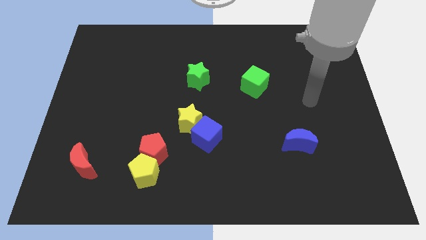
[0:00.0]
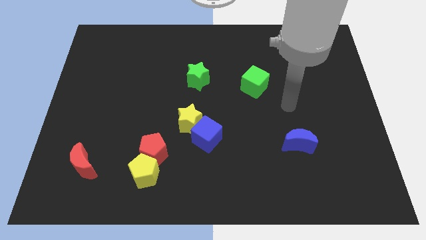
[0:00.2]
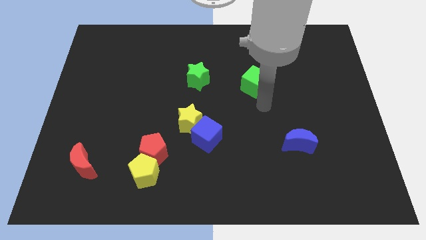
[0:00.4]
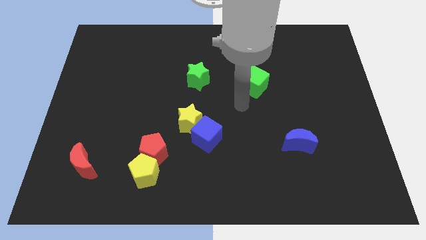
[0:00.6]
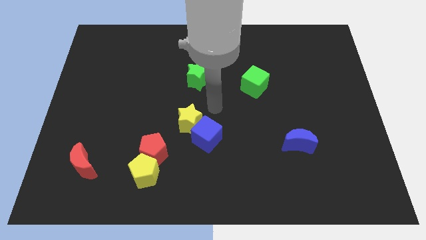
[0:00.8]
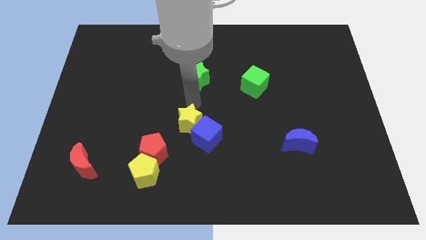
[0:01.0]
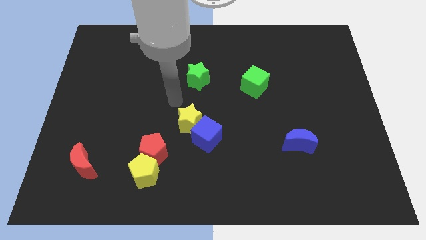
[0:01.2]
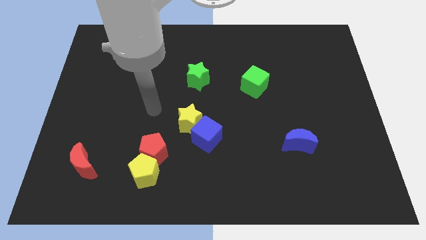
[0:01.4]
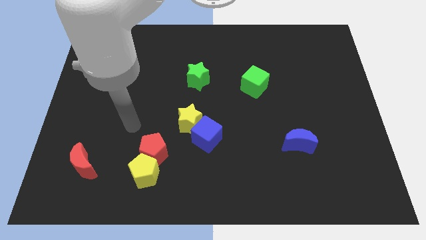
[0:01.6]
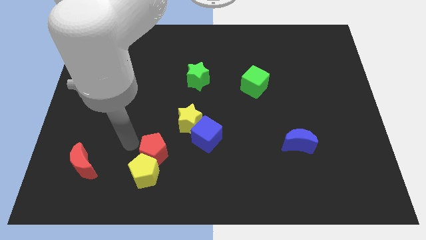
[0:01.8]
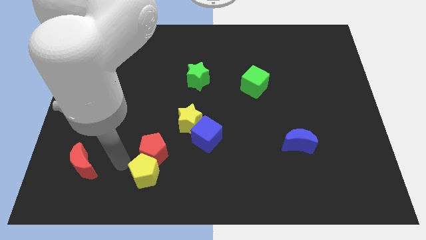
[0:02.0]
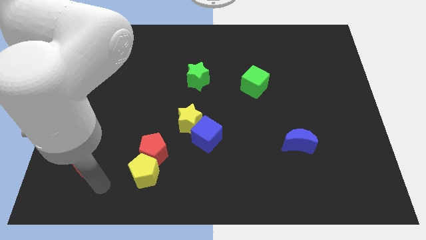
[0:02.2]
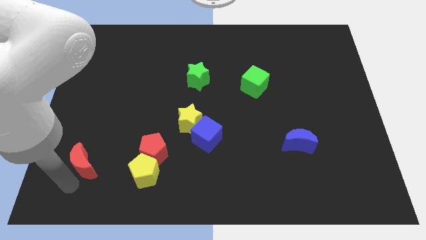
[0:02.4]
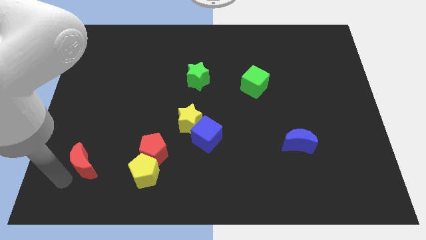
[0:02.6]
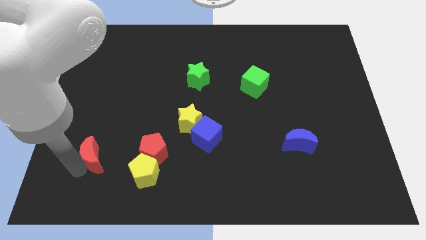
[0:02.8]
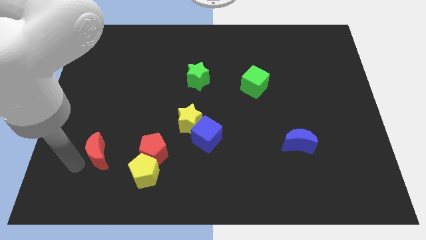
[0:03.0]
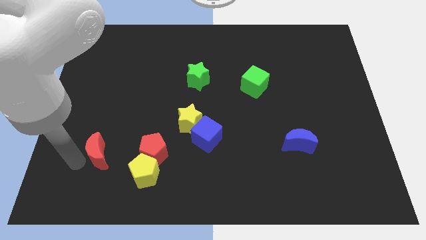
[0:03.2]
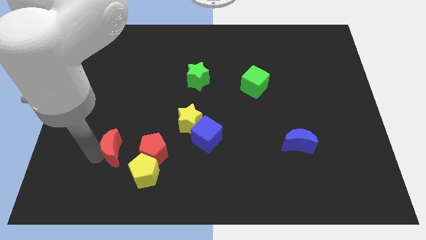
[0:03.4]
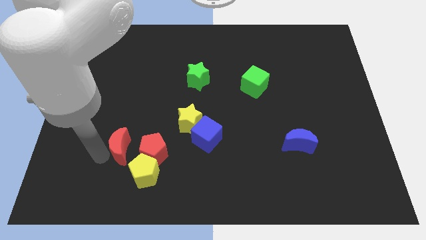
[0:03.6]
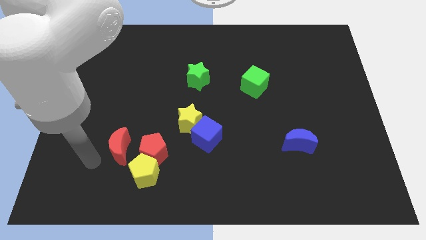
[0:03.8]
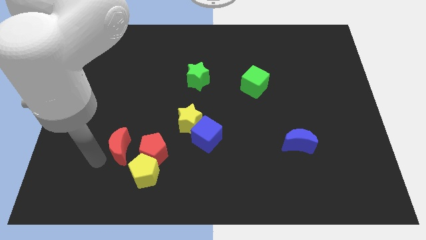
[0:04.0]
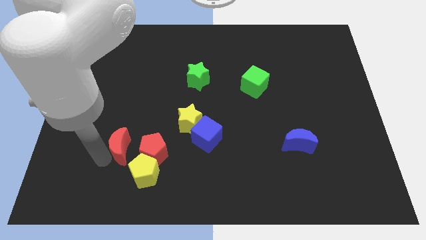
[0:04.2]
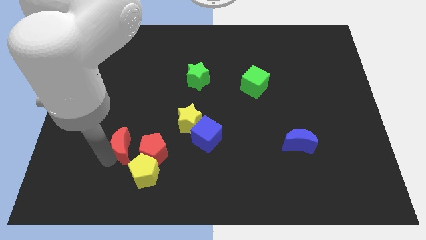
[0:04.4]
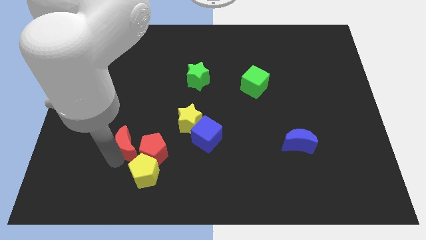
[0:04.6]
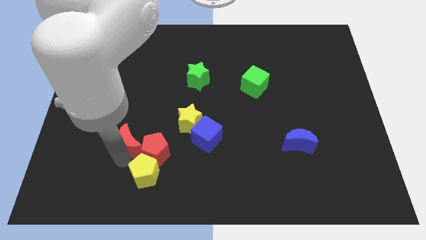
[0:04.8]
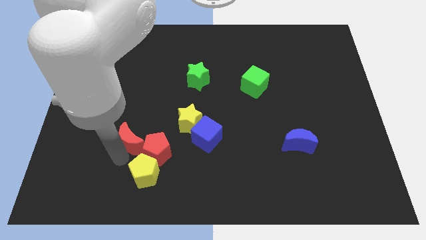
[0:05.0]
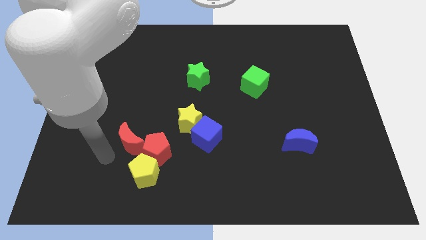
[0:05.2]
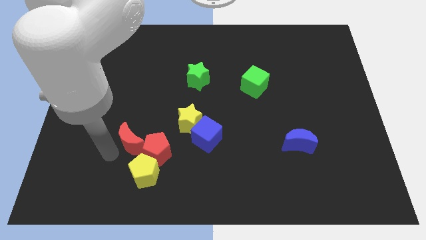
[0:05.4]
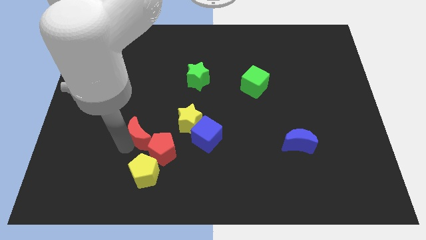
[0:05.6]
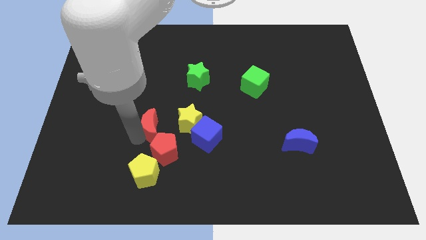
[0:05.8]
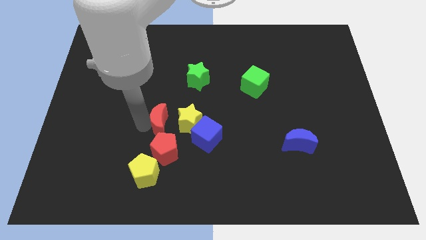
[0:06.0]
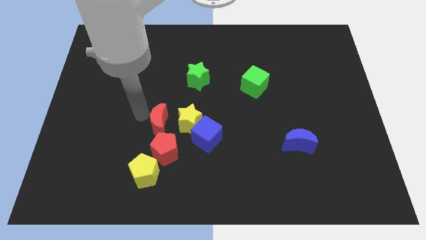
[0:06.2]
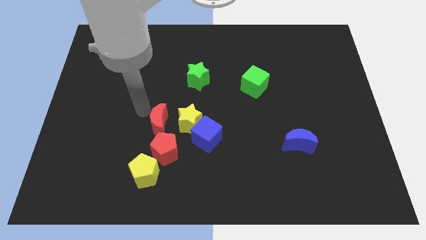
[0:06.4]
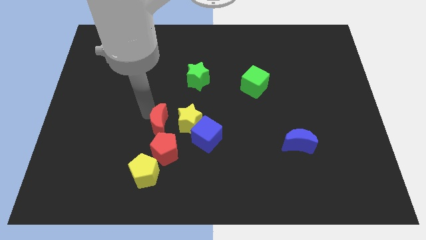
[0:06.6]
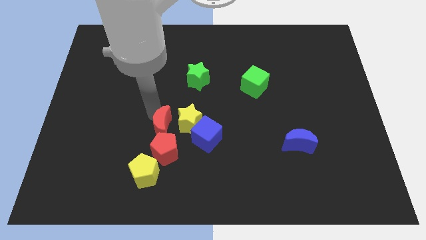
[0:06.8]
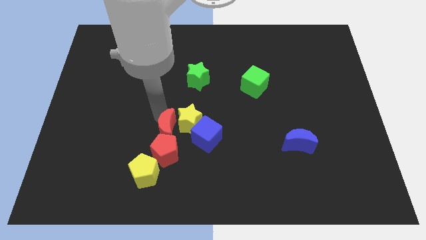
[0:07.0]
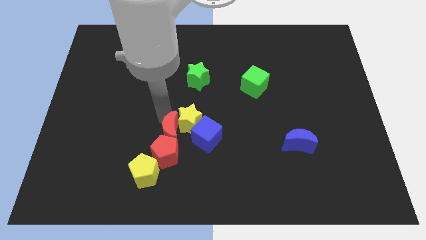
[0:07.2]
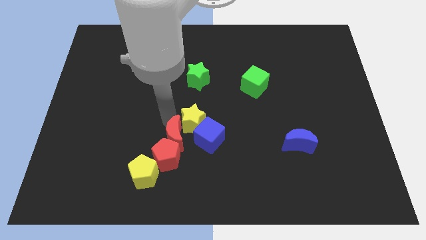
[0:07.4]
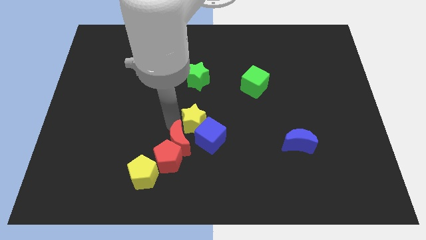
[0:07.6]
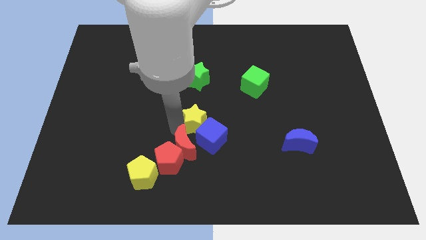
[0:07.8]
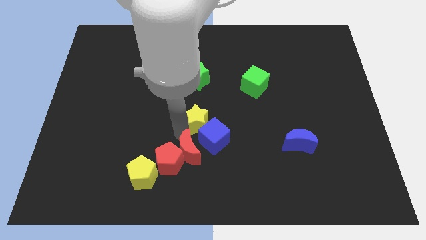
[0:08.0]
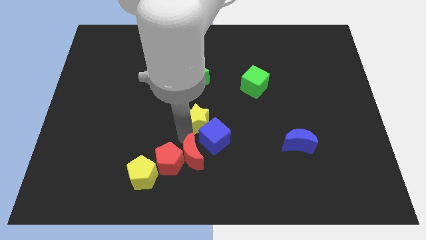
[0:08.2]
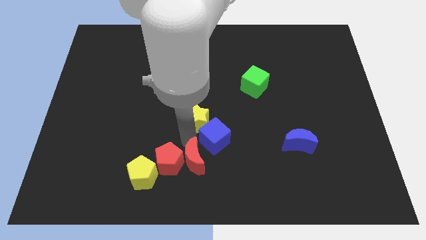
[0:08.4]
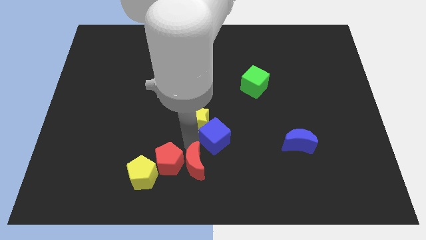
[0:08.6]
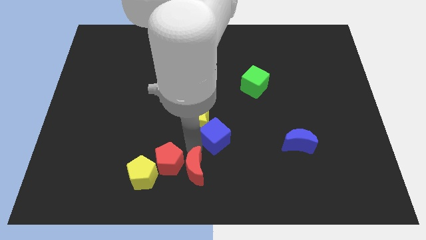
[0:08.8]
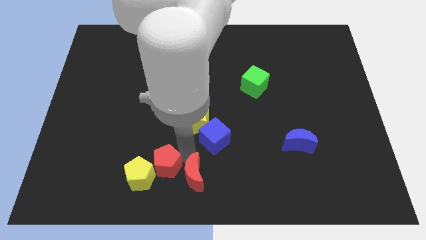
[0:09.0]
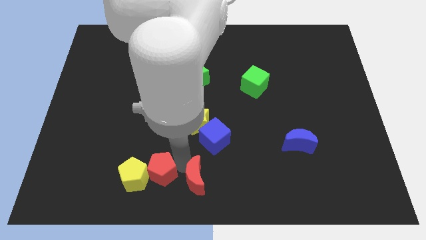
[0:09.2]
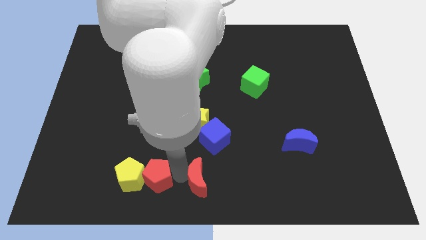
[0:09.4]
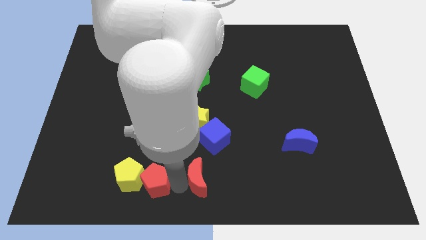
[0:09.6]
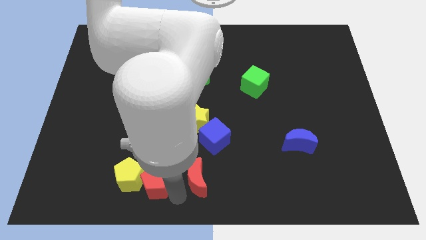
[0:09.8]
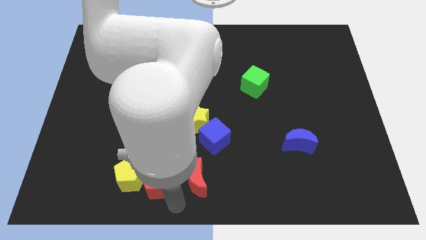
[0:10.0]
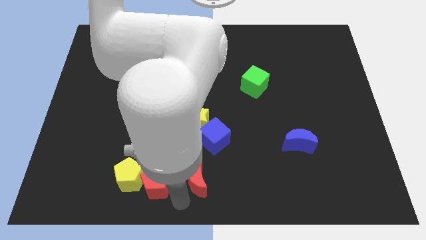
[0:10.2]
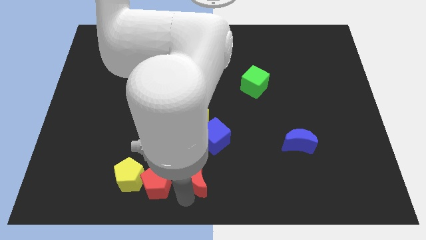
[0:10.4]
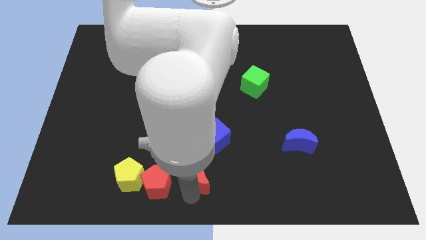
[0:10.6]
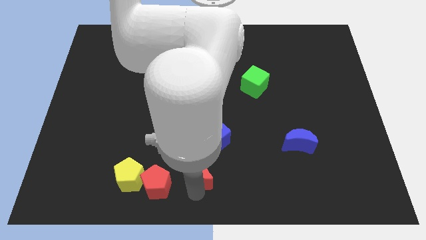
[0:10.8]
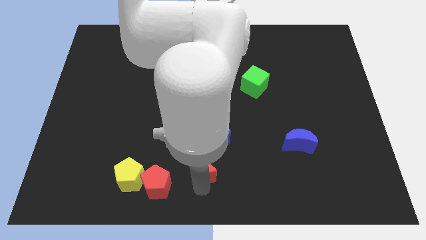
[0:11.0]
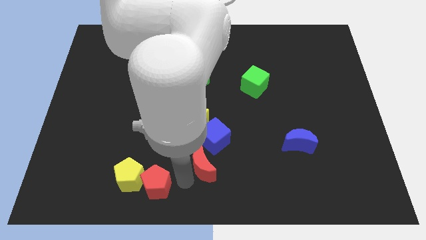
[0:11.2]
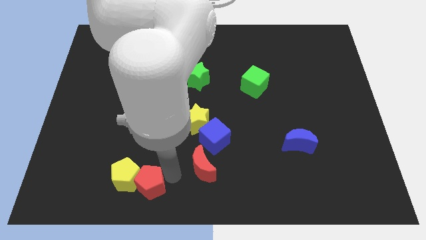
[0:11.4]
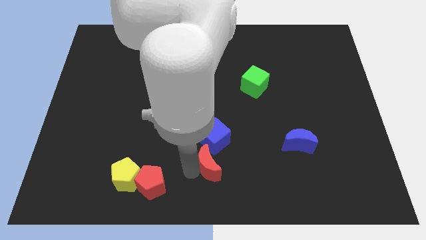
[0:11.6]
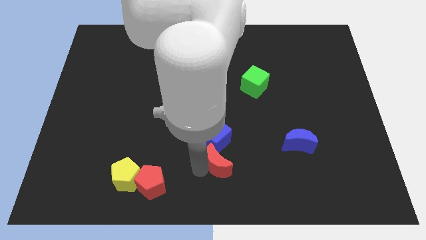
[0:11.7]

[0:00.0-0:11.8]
put the red moon to the bottom right of the blue cube

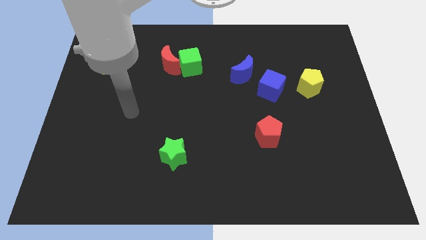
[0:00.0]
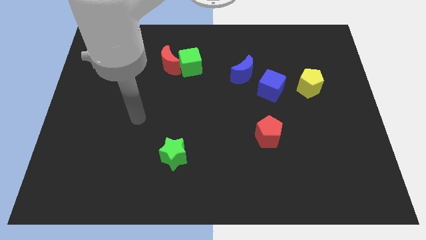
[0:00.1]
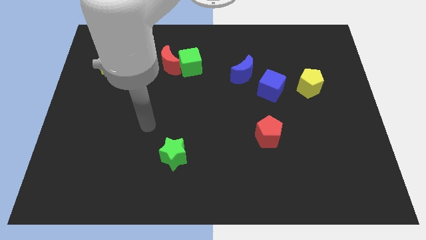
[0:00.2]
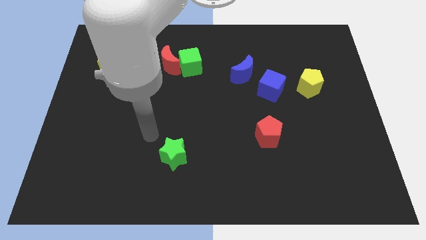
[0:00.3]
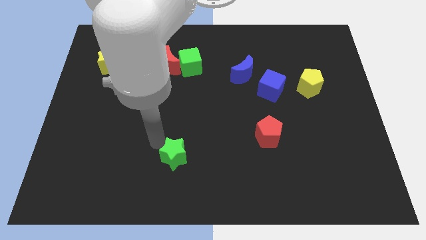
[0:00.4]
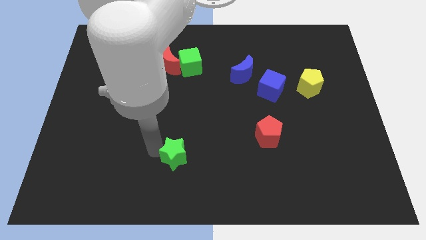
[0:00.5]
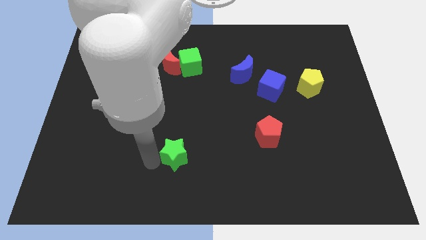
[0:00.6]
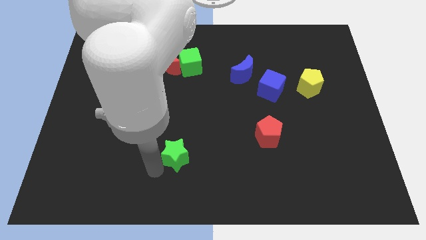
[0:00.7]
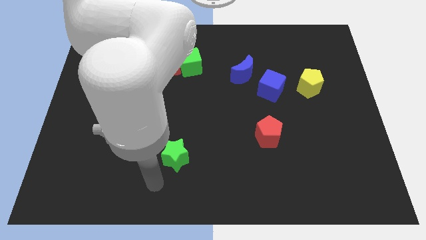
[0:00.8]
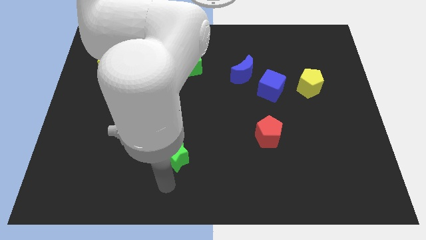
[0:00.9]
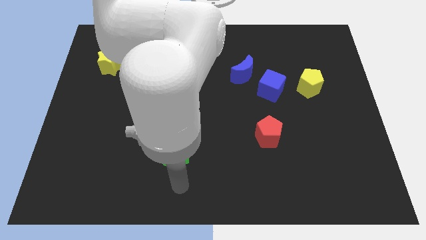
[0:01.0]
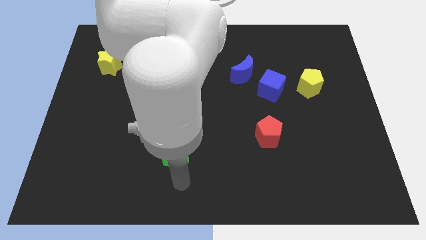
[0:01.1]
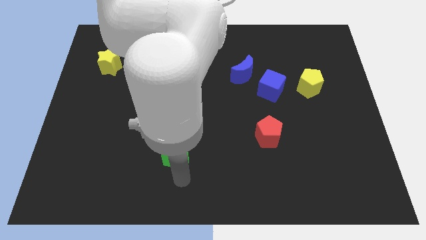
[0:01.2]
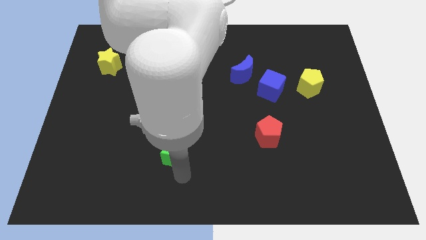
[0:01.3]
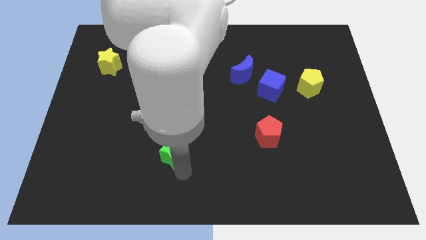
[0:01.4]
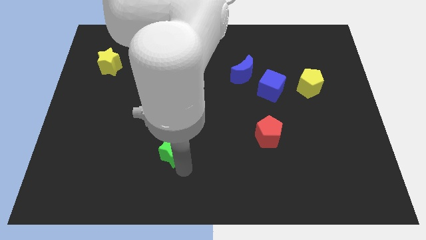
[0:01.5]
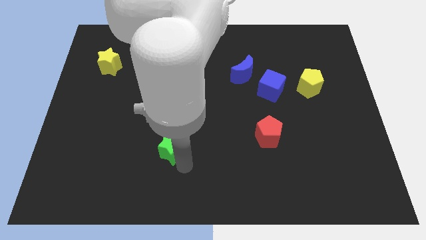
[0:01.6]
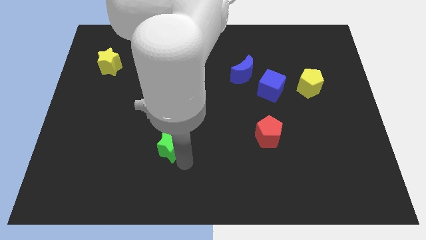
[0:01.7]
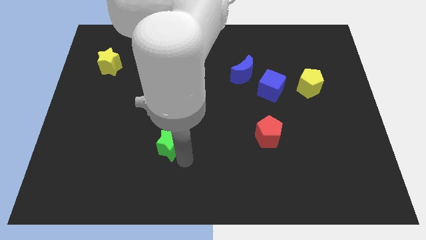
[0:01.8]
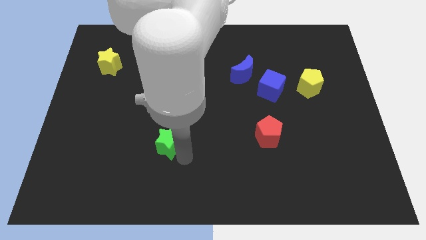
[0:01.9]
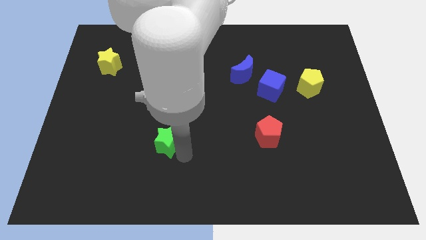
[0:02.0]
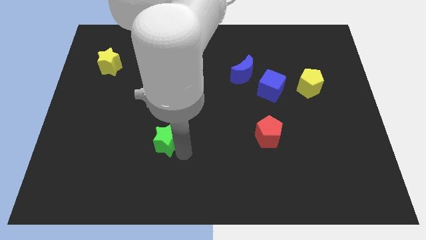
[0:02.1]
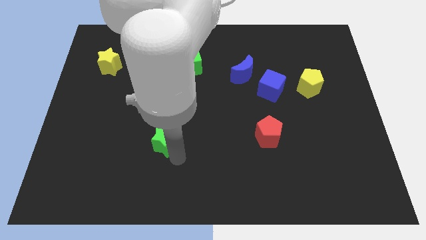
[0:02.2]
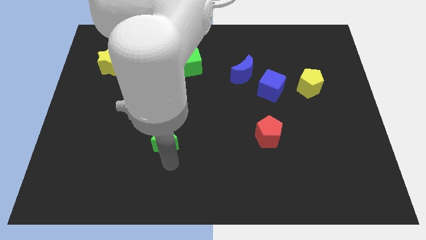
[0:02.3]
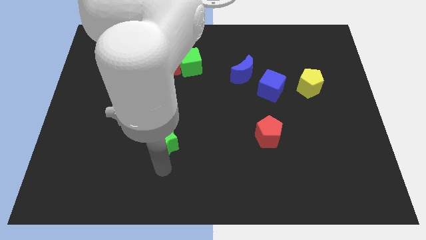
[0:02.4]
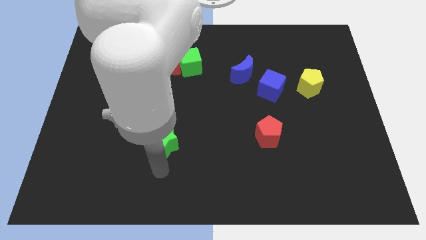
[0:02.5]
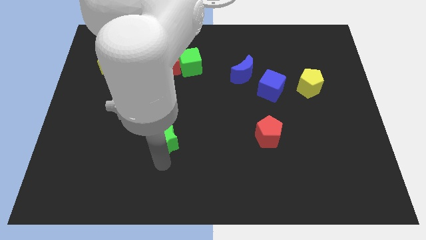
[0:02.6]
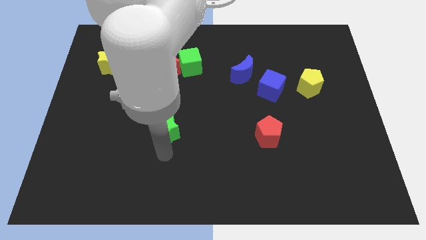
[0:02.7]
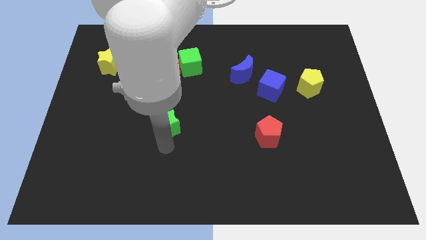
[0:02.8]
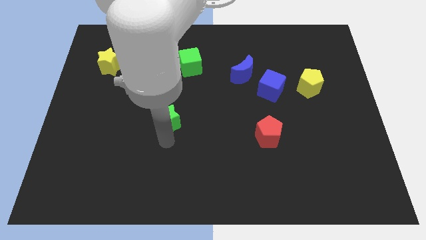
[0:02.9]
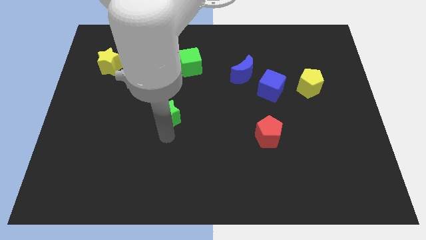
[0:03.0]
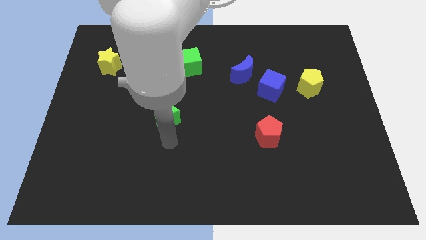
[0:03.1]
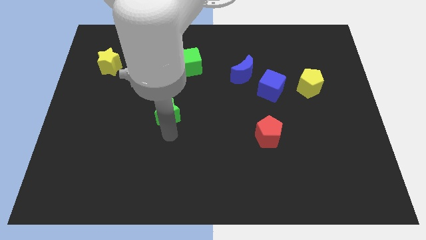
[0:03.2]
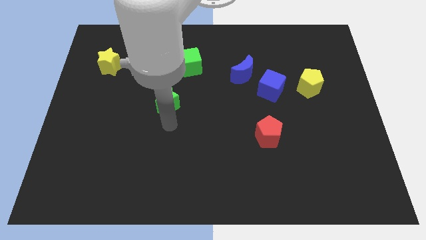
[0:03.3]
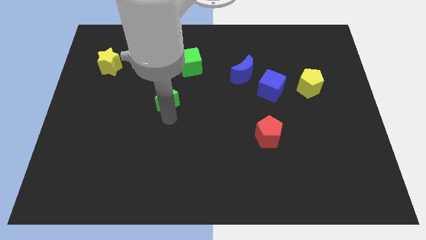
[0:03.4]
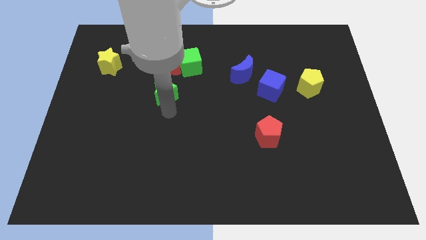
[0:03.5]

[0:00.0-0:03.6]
move the green star to the bottom left side of the green cube
